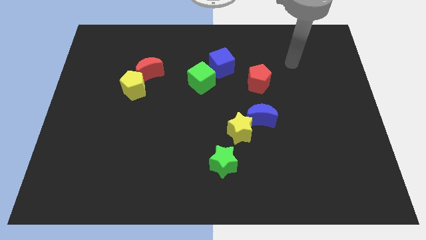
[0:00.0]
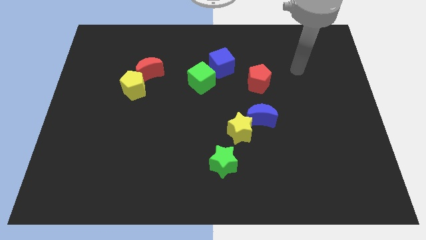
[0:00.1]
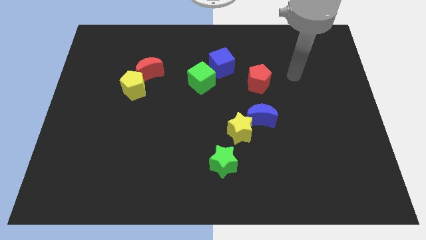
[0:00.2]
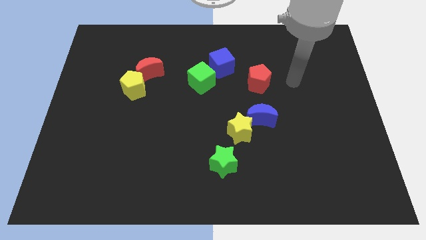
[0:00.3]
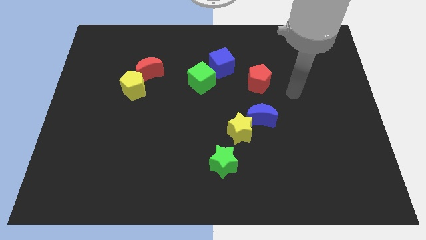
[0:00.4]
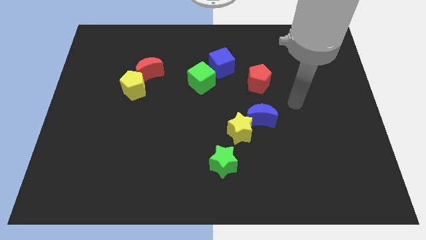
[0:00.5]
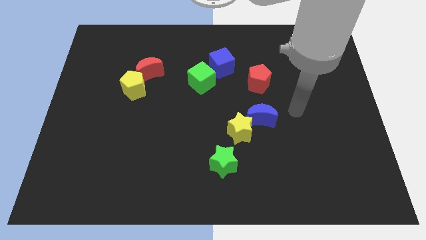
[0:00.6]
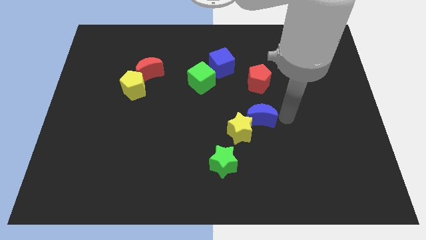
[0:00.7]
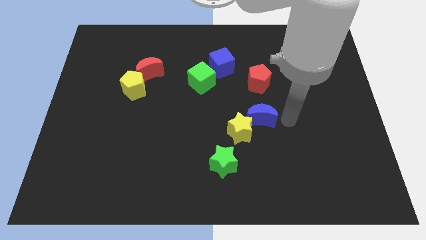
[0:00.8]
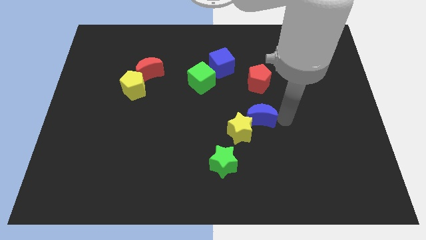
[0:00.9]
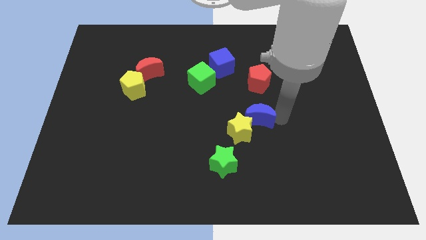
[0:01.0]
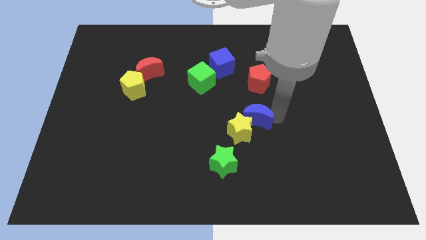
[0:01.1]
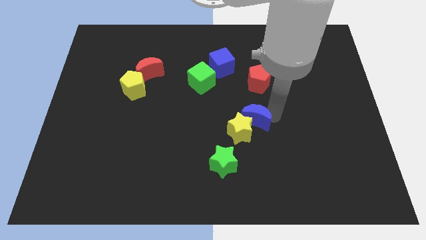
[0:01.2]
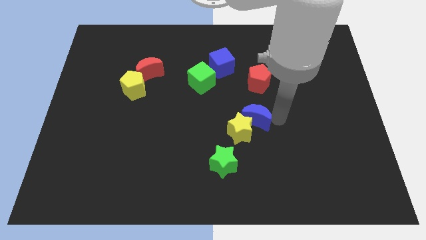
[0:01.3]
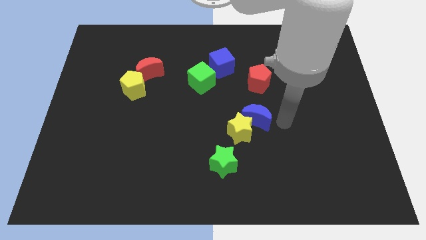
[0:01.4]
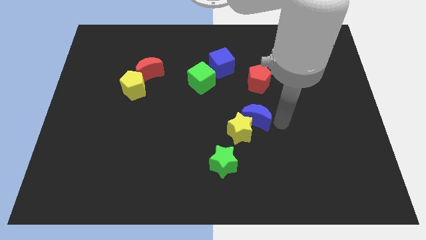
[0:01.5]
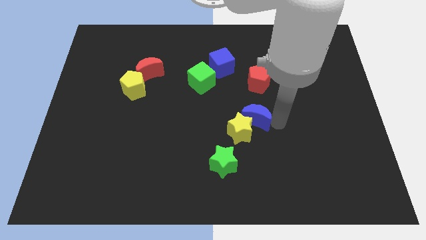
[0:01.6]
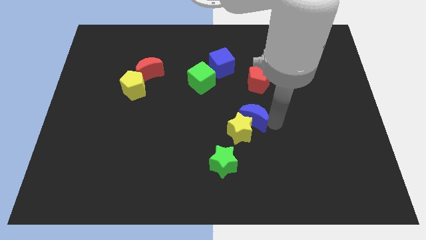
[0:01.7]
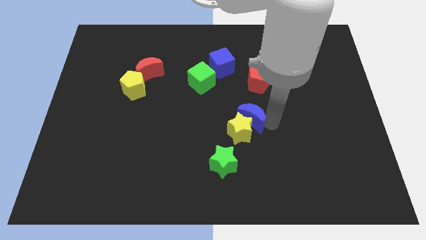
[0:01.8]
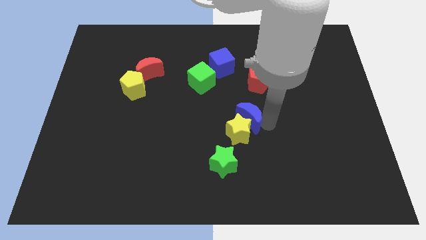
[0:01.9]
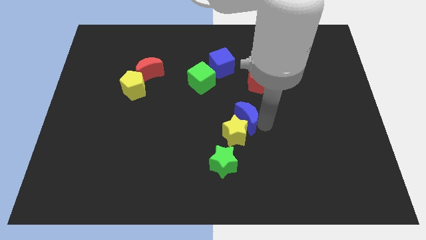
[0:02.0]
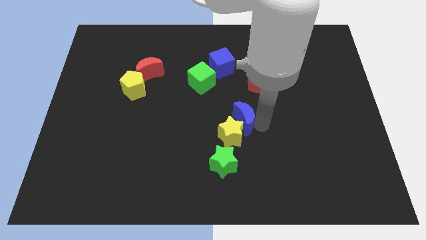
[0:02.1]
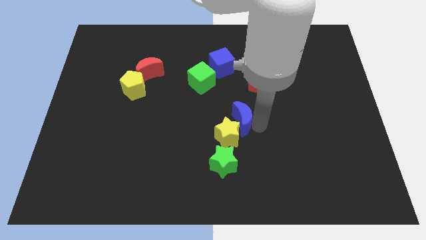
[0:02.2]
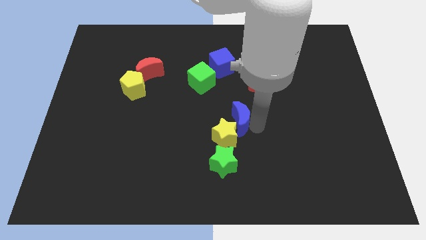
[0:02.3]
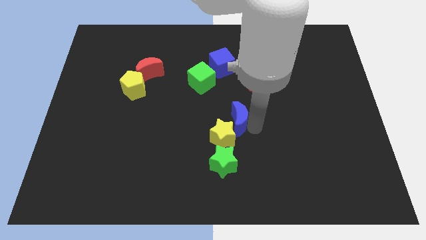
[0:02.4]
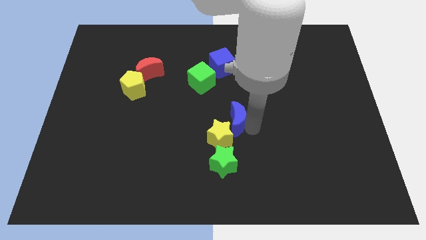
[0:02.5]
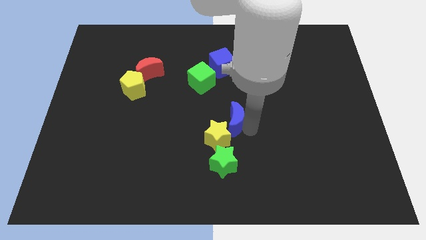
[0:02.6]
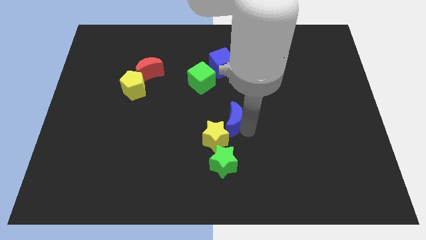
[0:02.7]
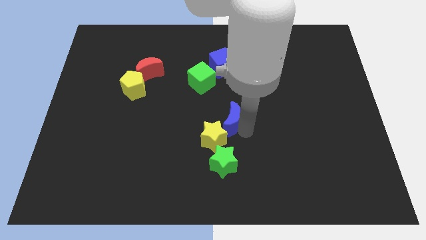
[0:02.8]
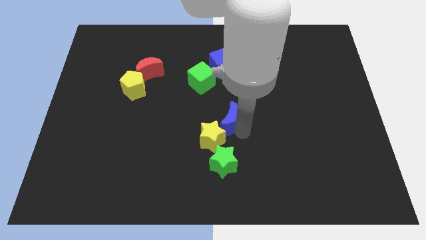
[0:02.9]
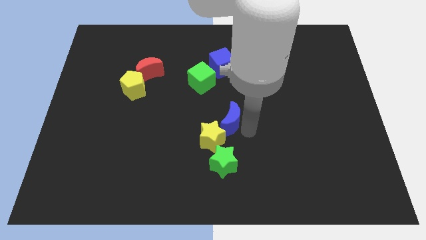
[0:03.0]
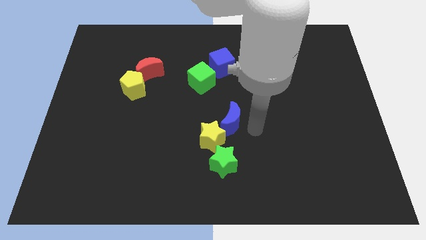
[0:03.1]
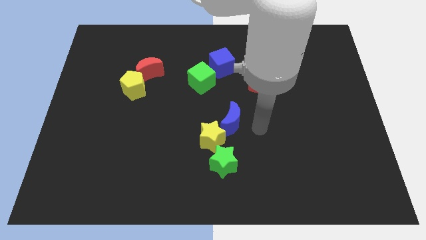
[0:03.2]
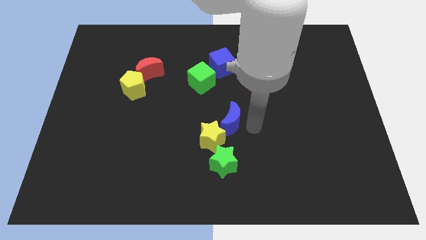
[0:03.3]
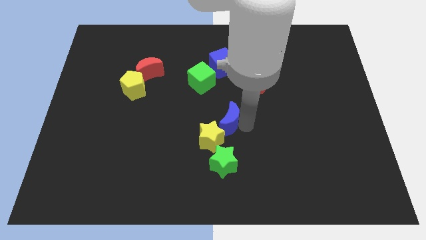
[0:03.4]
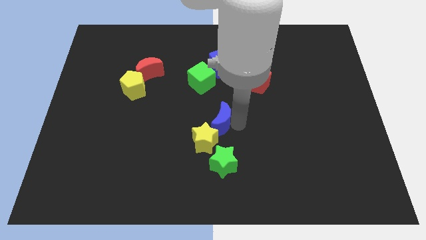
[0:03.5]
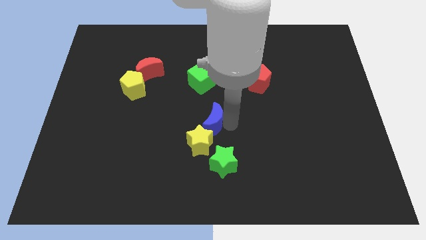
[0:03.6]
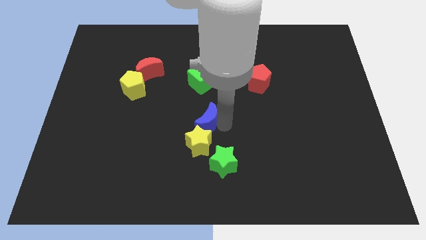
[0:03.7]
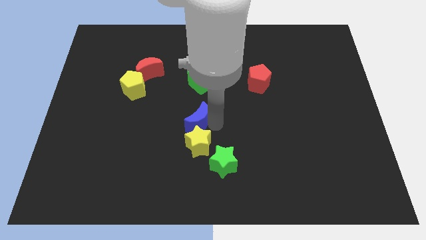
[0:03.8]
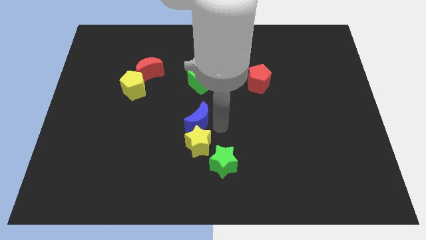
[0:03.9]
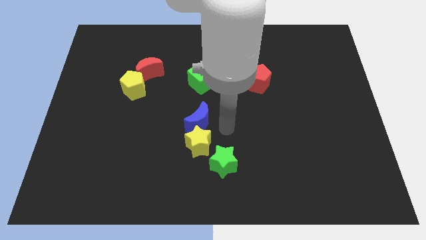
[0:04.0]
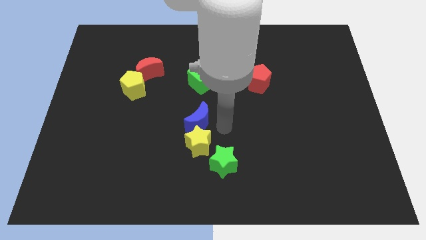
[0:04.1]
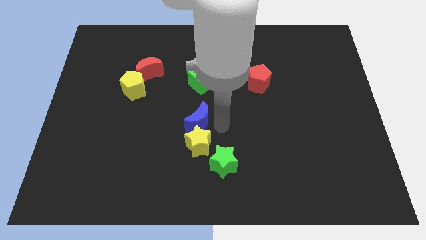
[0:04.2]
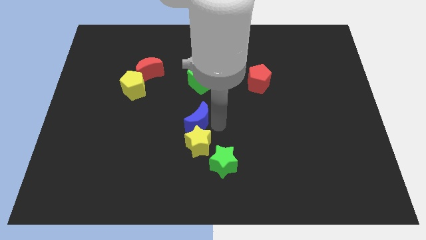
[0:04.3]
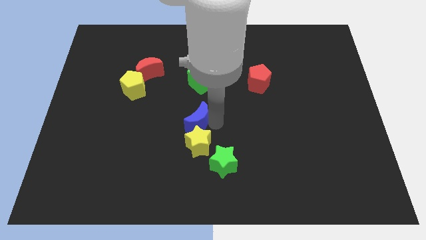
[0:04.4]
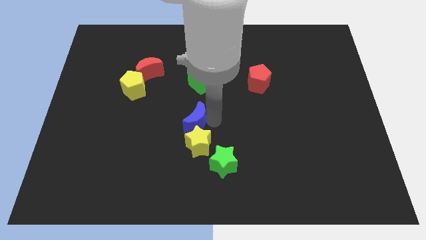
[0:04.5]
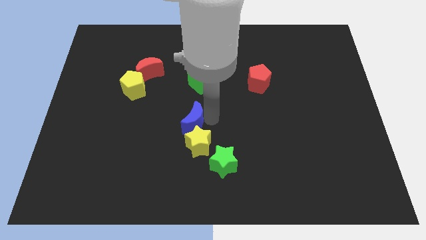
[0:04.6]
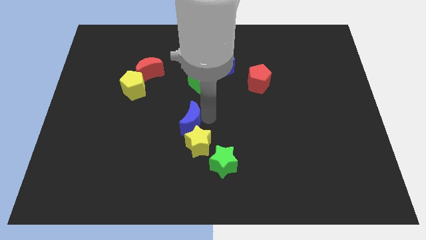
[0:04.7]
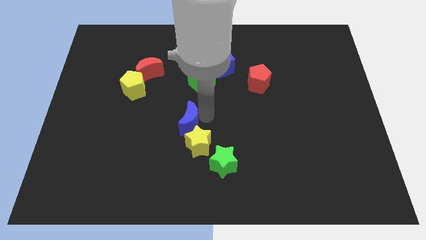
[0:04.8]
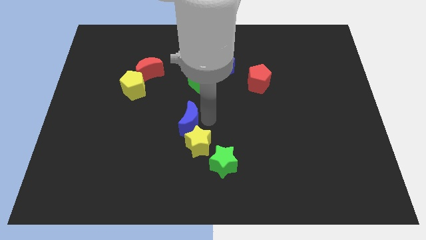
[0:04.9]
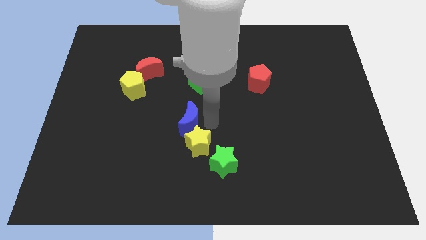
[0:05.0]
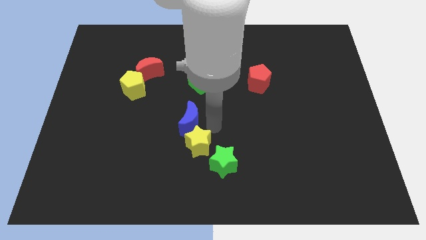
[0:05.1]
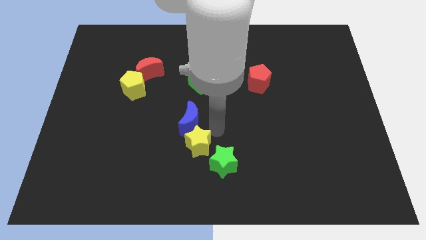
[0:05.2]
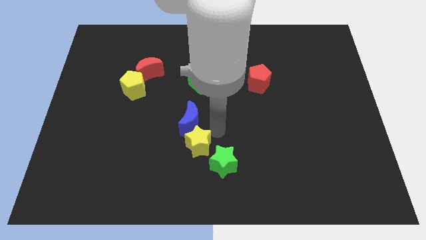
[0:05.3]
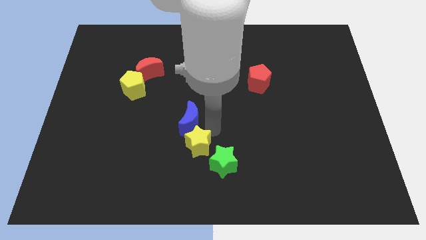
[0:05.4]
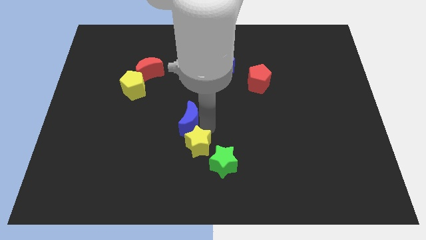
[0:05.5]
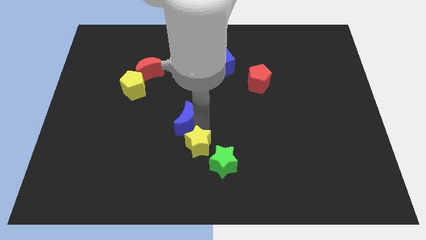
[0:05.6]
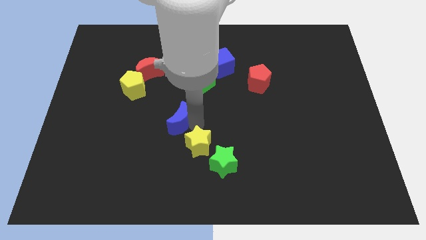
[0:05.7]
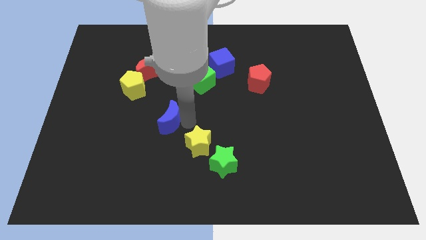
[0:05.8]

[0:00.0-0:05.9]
push the blue moon to the left

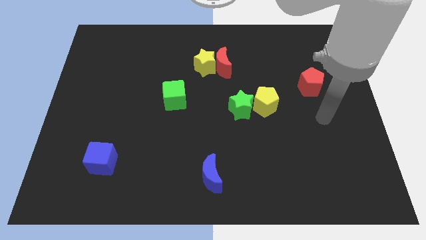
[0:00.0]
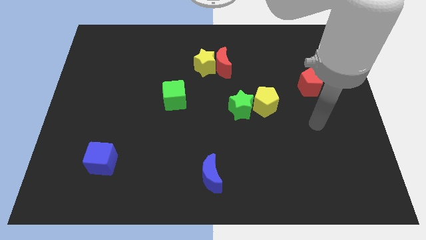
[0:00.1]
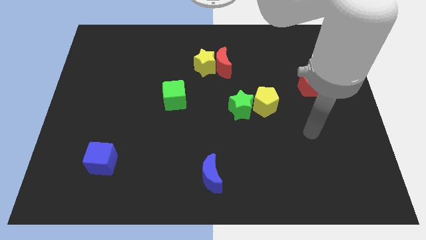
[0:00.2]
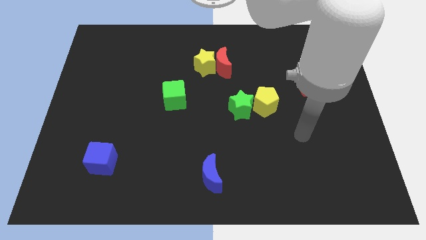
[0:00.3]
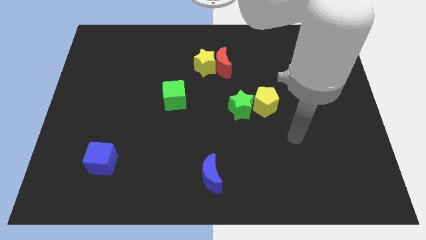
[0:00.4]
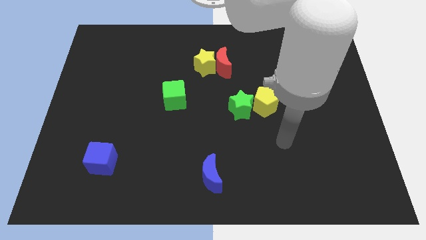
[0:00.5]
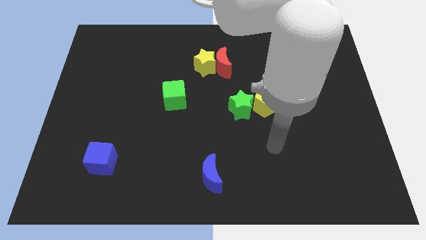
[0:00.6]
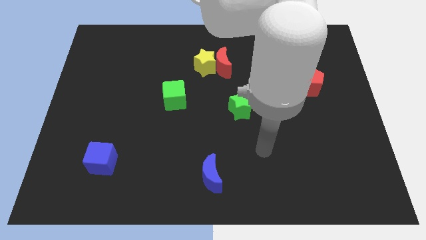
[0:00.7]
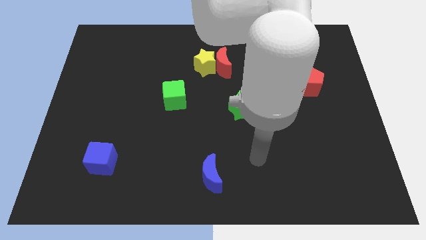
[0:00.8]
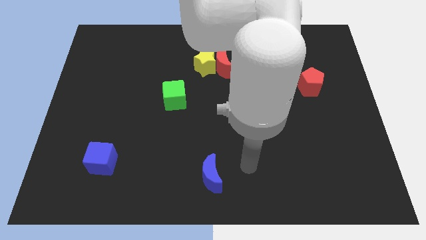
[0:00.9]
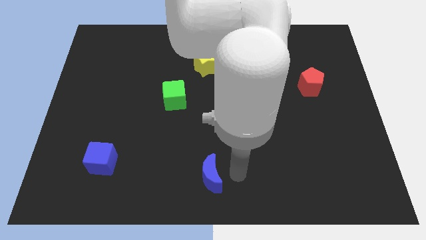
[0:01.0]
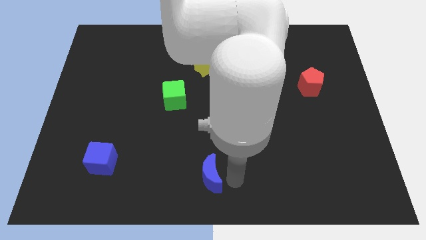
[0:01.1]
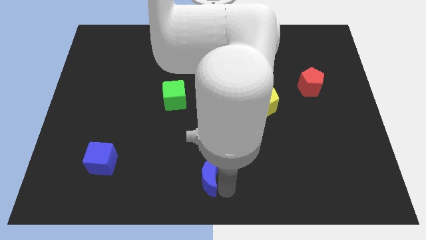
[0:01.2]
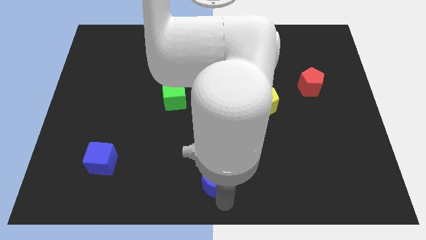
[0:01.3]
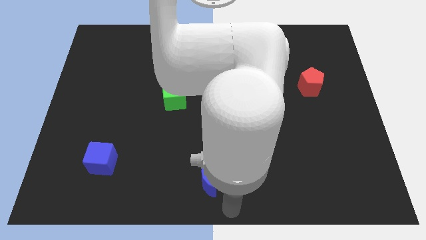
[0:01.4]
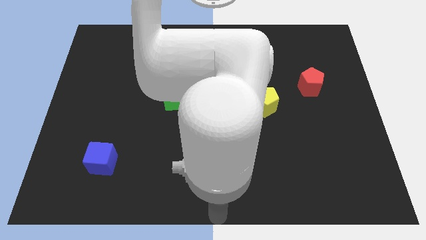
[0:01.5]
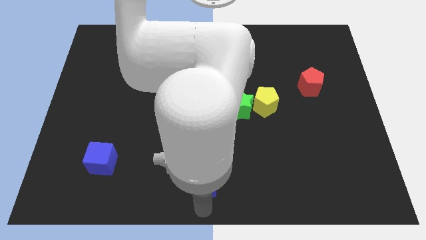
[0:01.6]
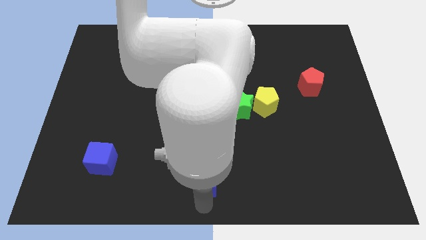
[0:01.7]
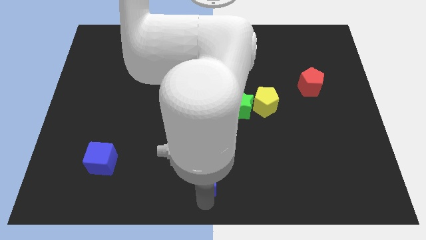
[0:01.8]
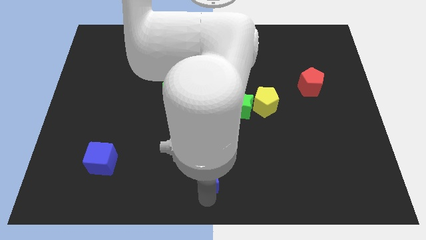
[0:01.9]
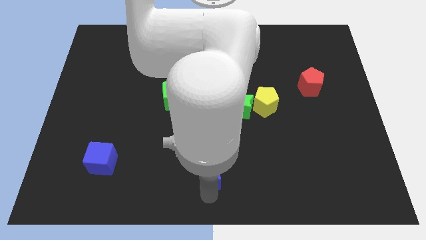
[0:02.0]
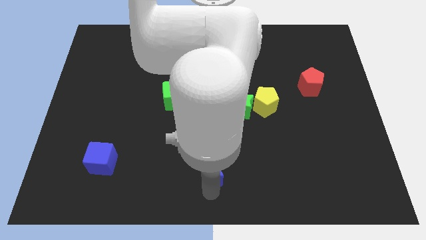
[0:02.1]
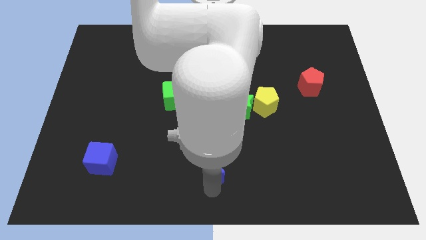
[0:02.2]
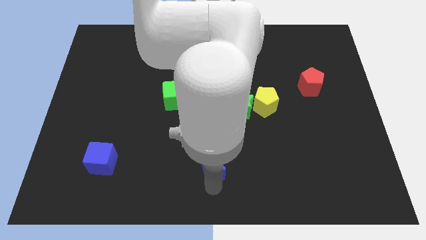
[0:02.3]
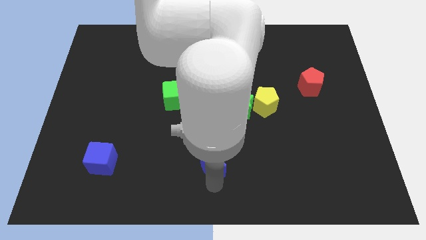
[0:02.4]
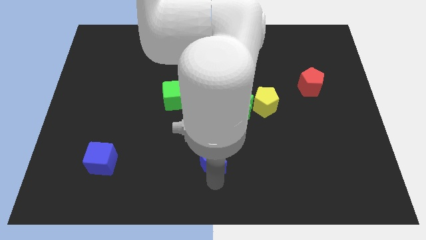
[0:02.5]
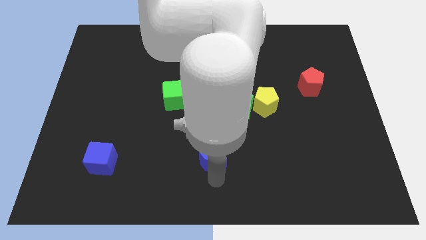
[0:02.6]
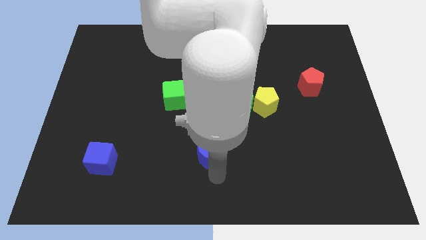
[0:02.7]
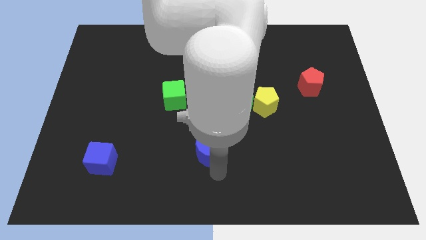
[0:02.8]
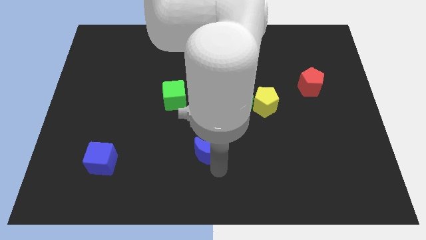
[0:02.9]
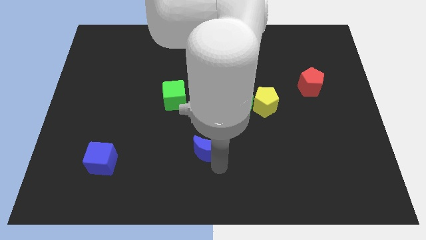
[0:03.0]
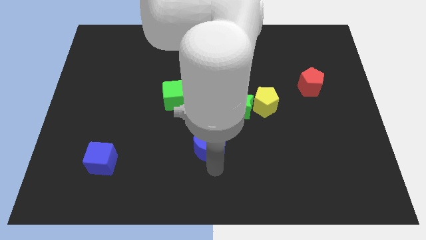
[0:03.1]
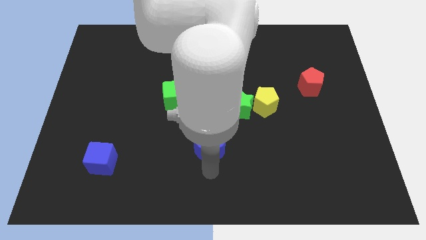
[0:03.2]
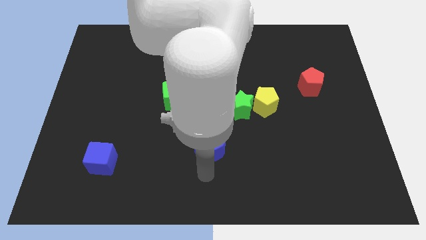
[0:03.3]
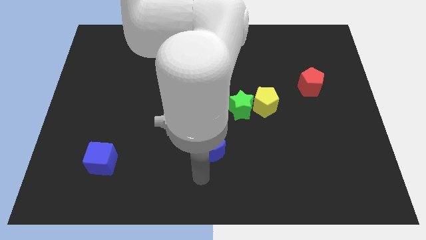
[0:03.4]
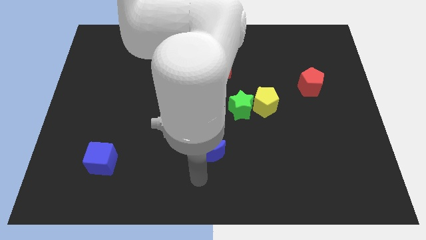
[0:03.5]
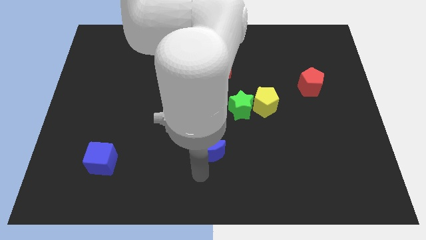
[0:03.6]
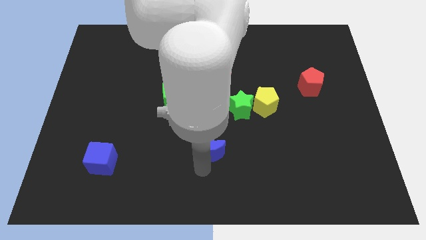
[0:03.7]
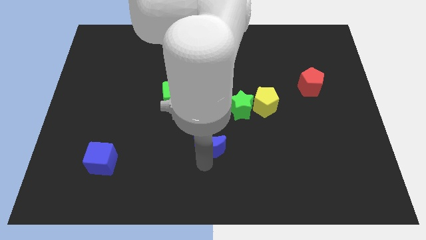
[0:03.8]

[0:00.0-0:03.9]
slide the blue moon upwards somewhat
